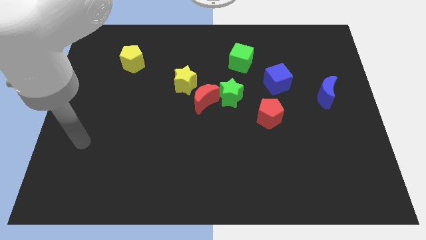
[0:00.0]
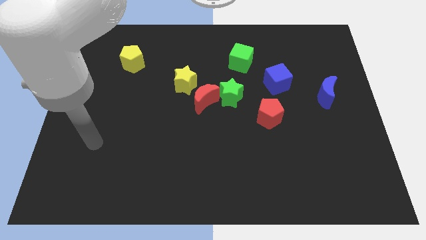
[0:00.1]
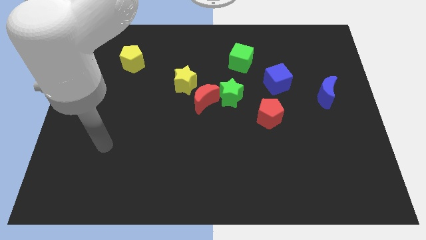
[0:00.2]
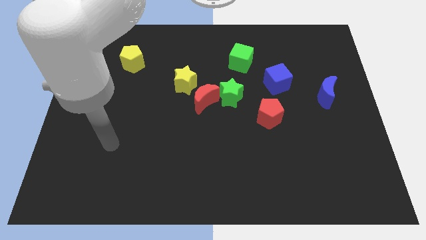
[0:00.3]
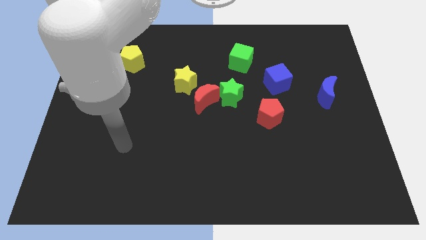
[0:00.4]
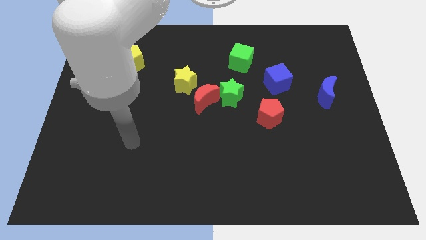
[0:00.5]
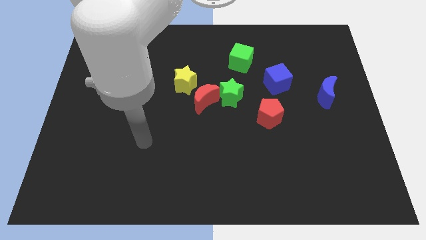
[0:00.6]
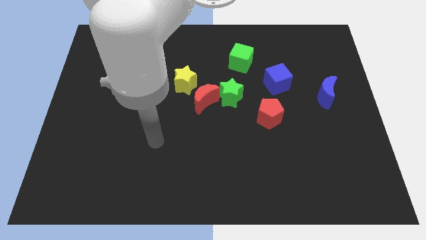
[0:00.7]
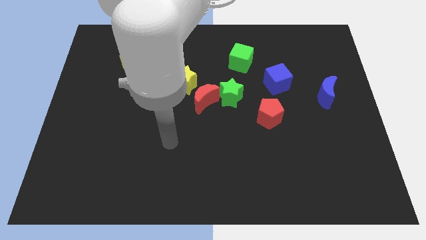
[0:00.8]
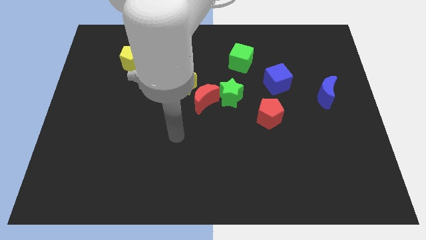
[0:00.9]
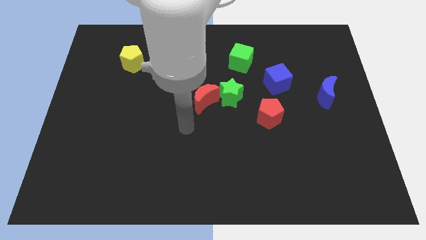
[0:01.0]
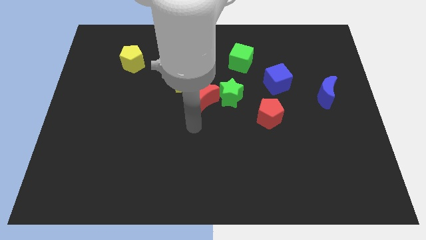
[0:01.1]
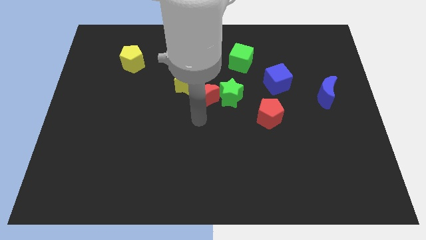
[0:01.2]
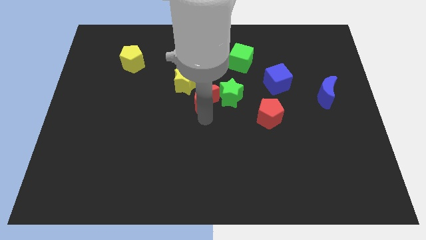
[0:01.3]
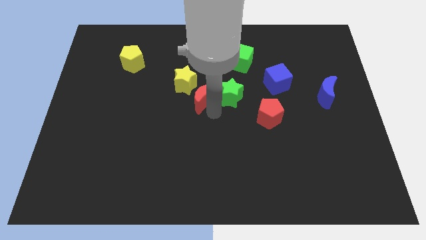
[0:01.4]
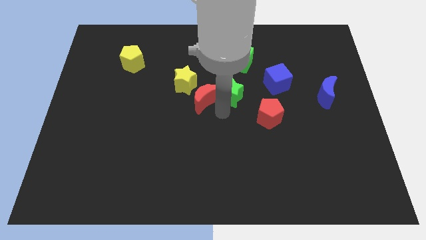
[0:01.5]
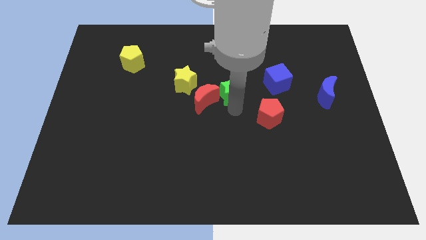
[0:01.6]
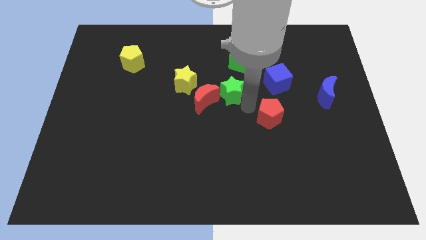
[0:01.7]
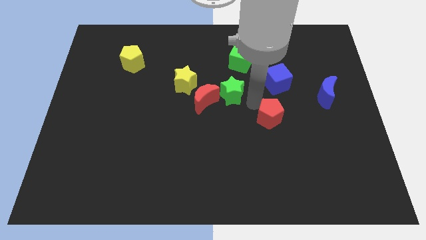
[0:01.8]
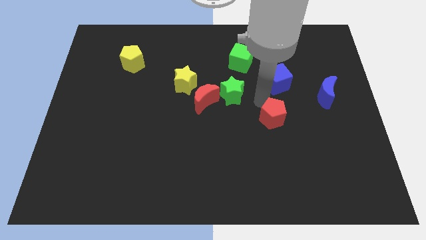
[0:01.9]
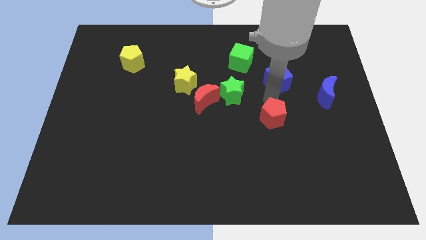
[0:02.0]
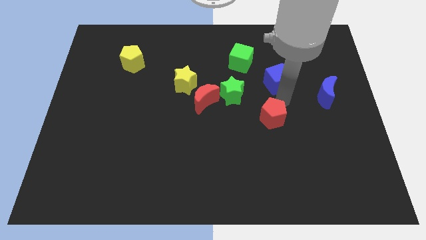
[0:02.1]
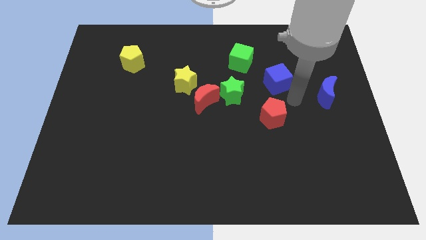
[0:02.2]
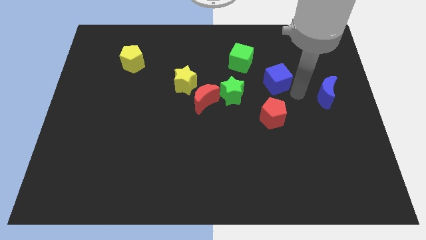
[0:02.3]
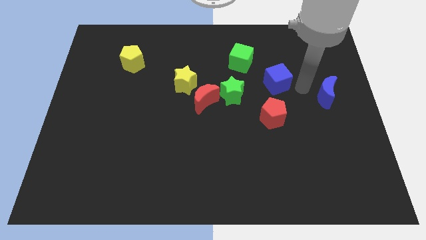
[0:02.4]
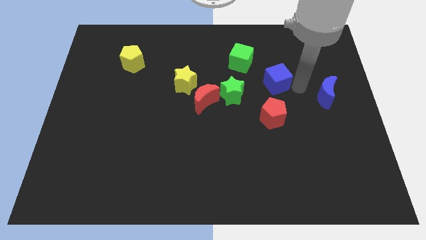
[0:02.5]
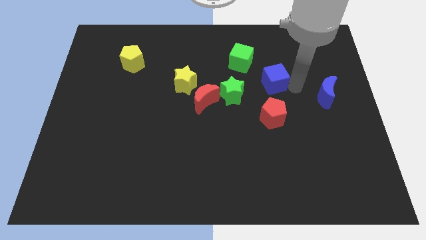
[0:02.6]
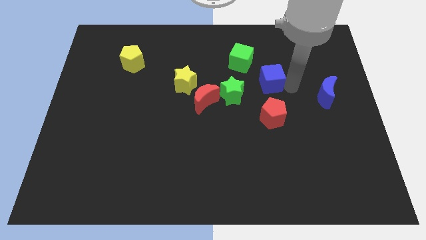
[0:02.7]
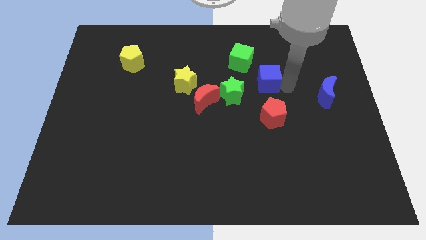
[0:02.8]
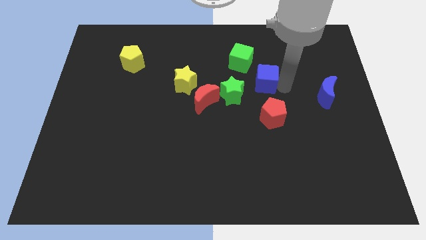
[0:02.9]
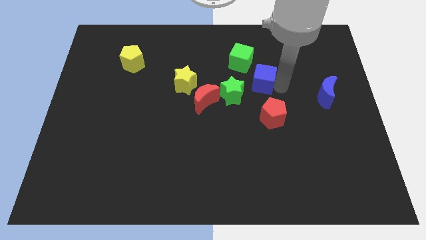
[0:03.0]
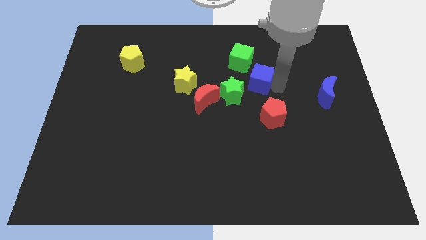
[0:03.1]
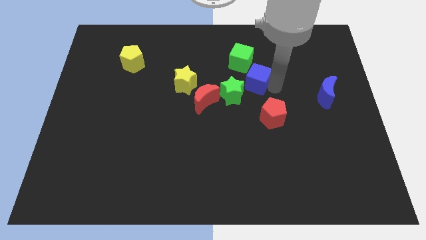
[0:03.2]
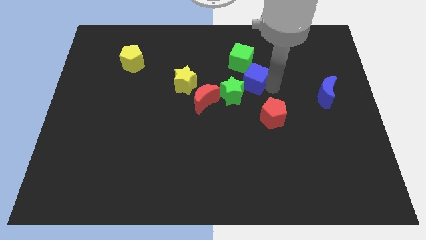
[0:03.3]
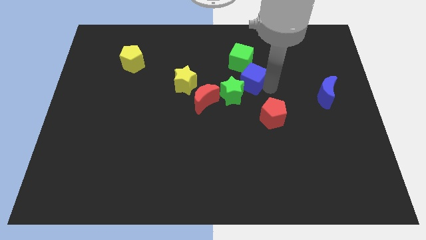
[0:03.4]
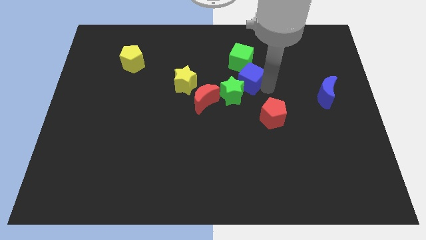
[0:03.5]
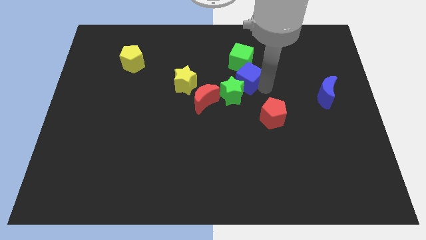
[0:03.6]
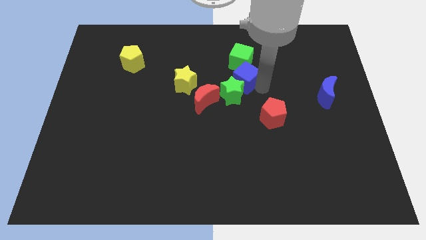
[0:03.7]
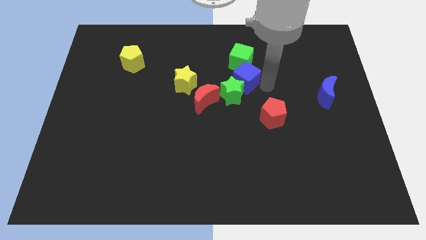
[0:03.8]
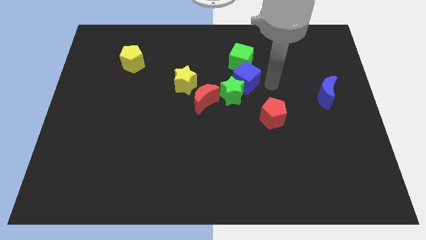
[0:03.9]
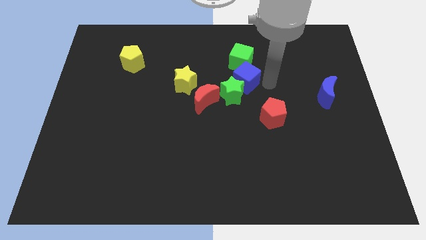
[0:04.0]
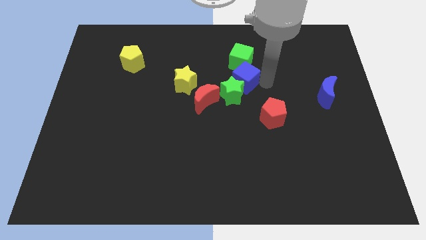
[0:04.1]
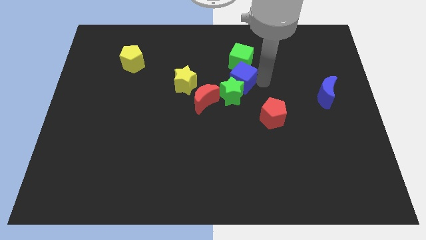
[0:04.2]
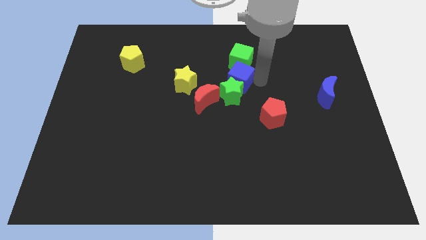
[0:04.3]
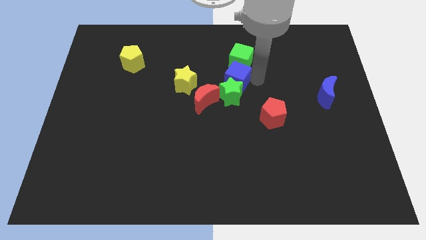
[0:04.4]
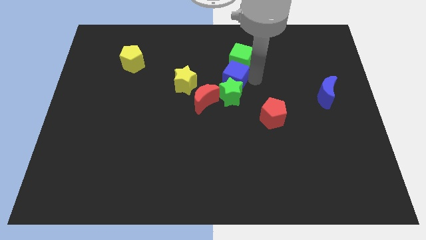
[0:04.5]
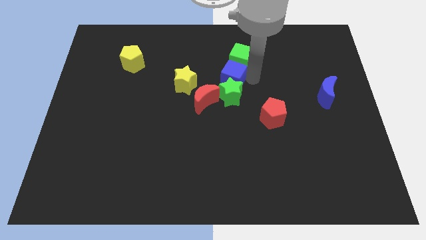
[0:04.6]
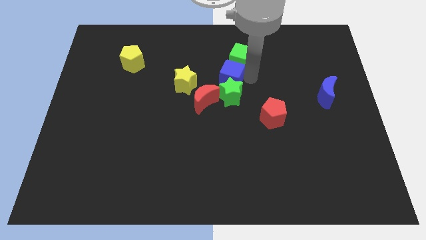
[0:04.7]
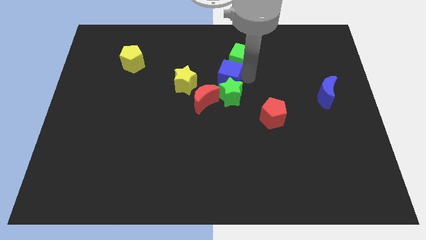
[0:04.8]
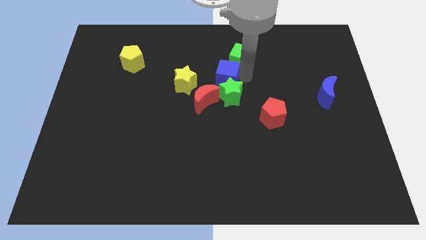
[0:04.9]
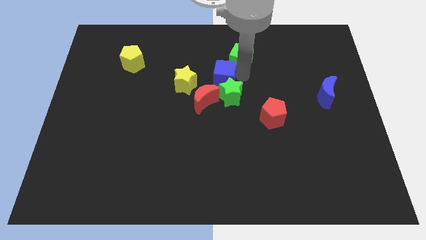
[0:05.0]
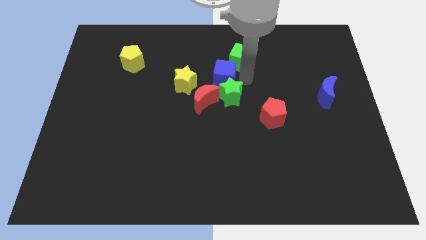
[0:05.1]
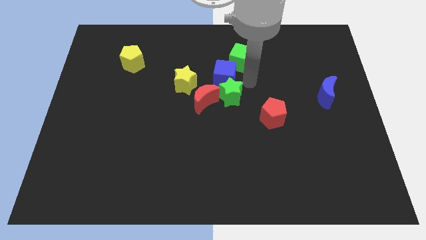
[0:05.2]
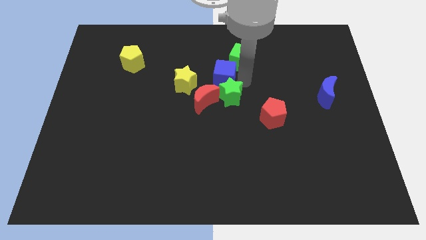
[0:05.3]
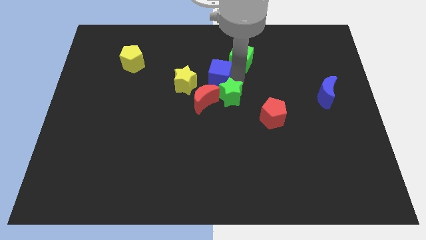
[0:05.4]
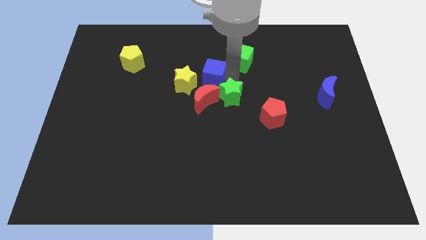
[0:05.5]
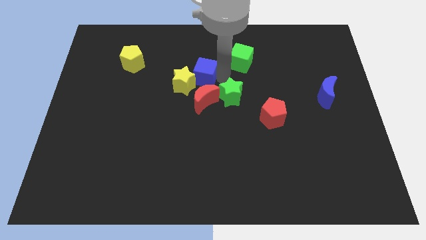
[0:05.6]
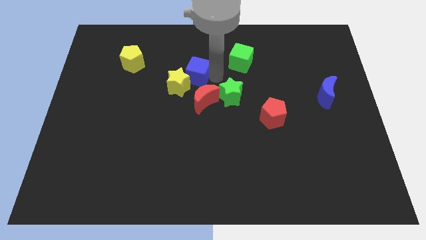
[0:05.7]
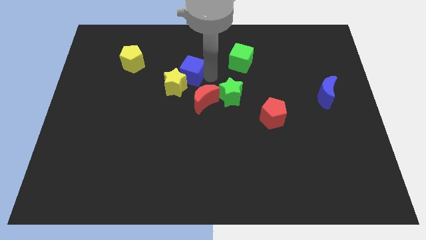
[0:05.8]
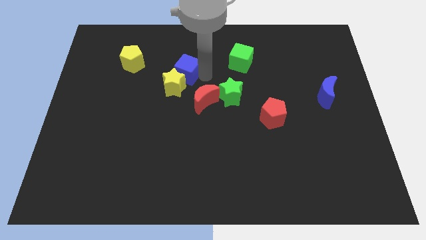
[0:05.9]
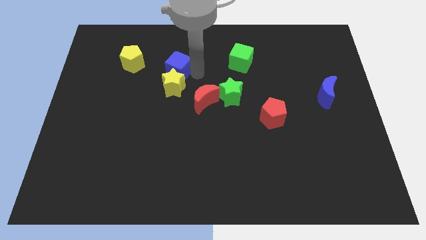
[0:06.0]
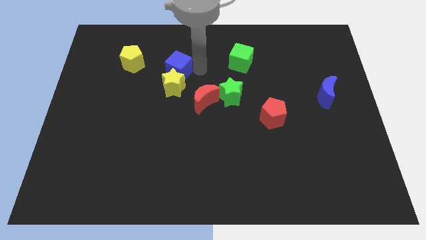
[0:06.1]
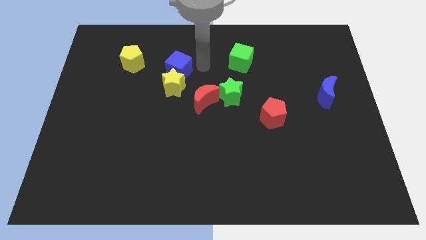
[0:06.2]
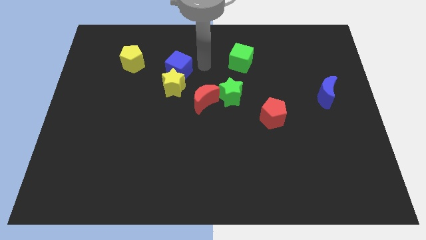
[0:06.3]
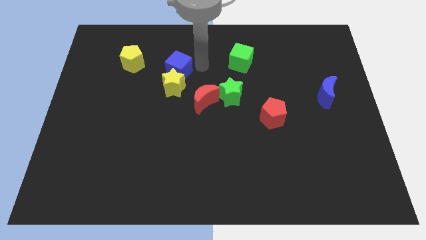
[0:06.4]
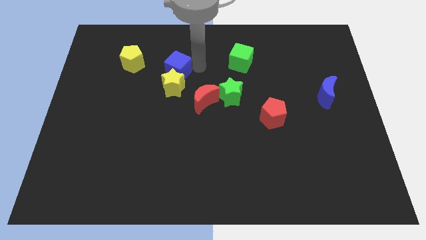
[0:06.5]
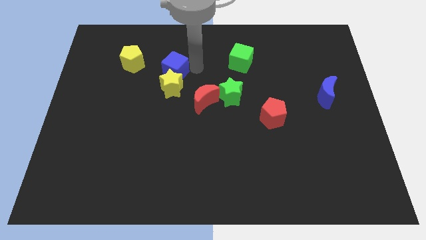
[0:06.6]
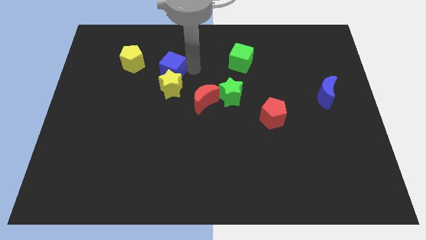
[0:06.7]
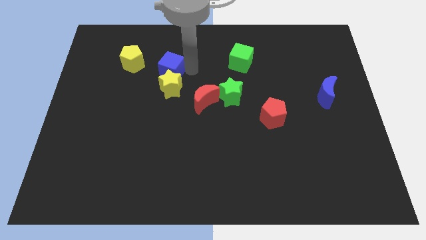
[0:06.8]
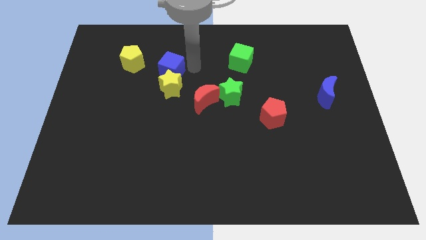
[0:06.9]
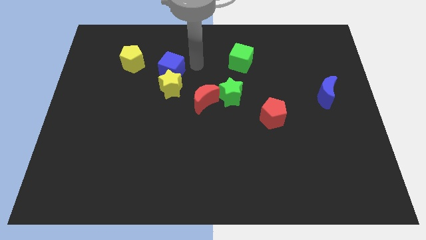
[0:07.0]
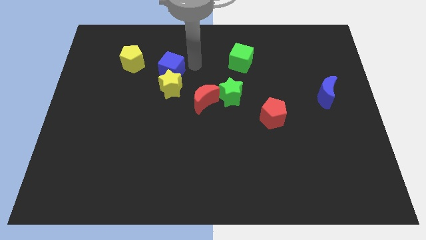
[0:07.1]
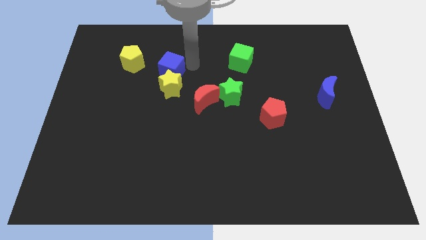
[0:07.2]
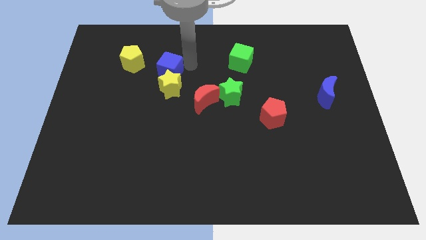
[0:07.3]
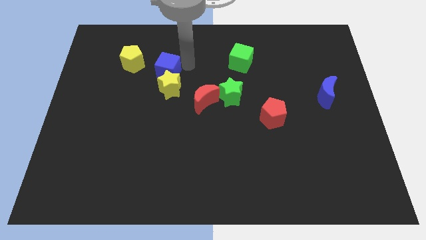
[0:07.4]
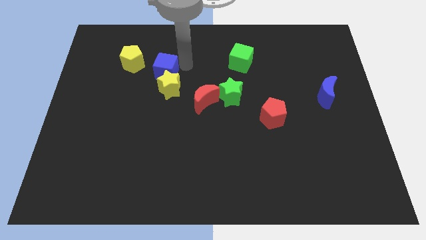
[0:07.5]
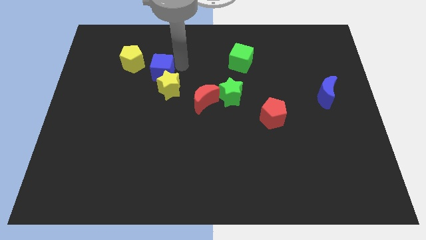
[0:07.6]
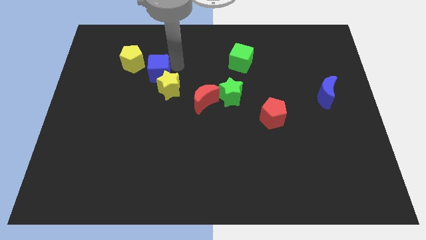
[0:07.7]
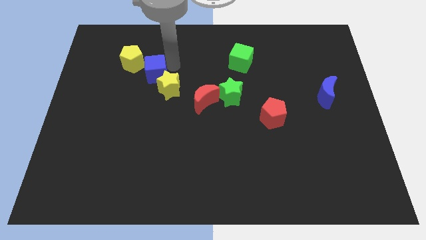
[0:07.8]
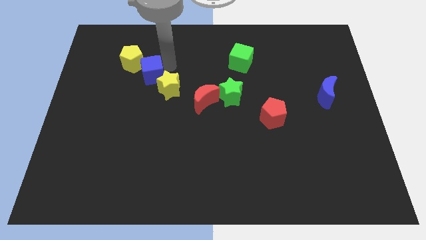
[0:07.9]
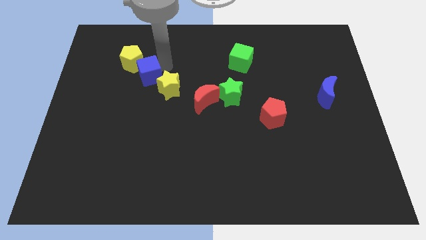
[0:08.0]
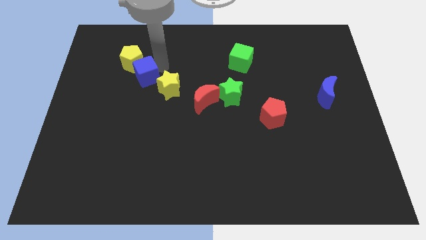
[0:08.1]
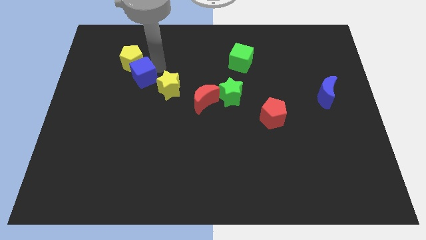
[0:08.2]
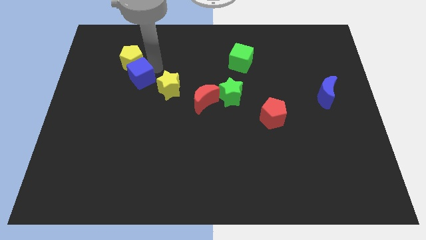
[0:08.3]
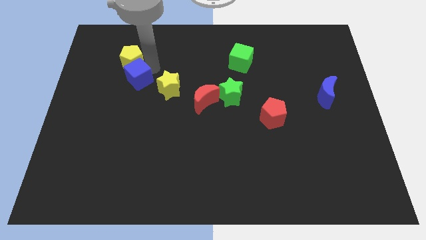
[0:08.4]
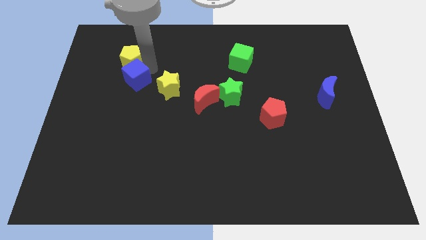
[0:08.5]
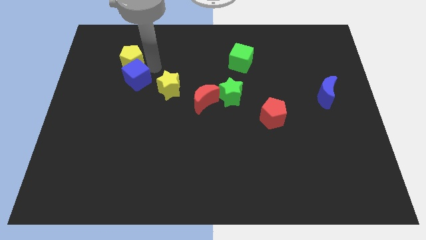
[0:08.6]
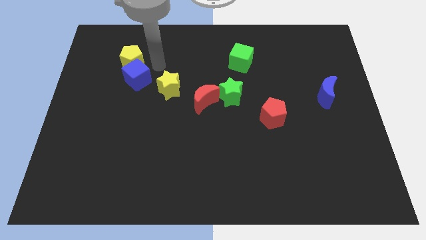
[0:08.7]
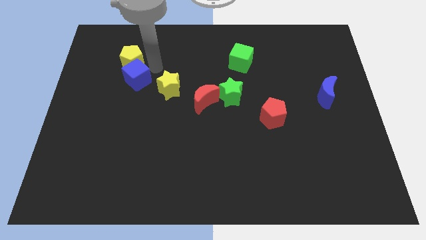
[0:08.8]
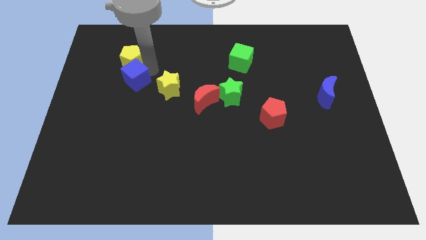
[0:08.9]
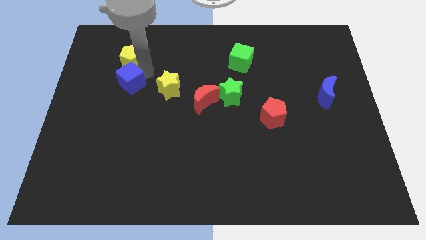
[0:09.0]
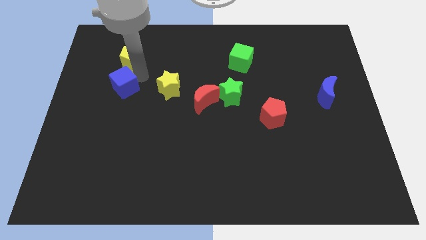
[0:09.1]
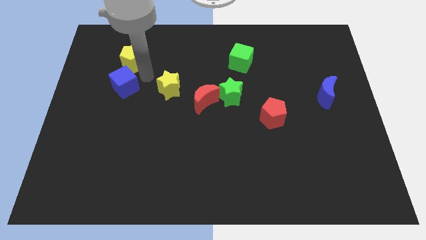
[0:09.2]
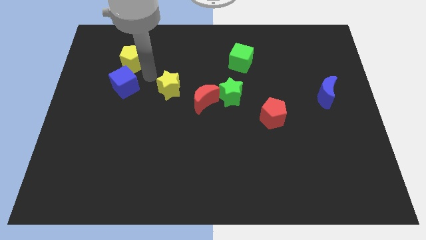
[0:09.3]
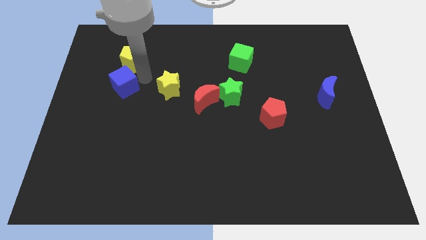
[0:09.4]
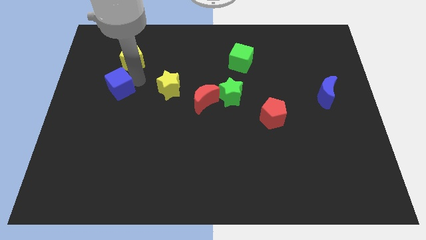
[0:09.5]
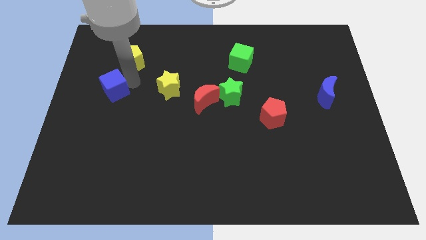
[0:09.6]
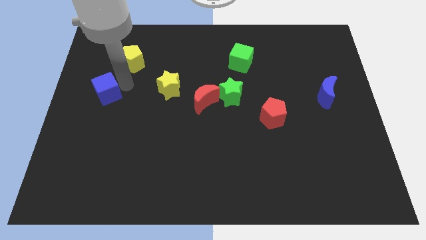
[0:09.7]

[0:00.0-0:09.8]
move the blue cube to the left side of the board
